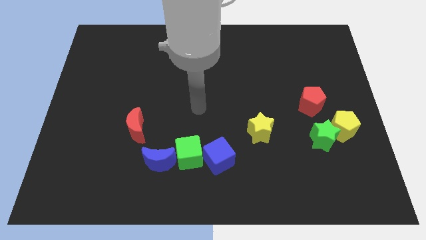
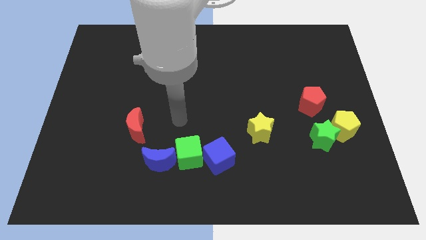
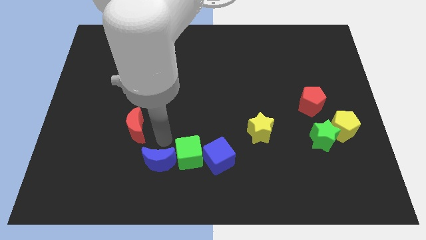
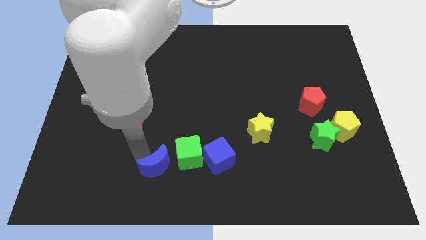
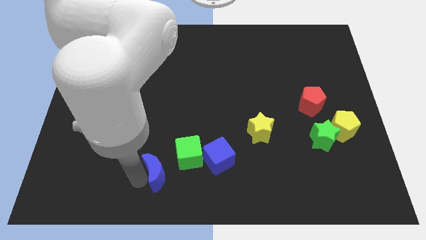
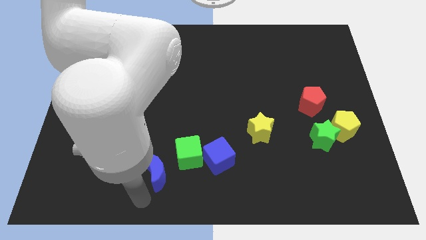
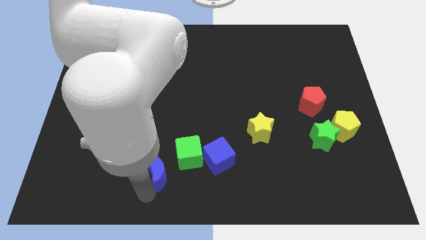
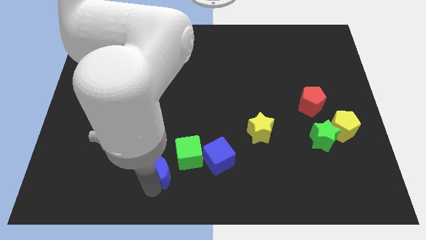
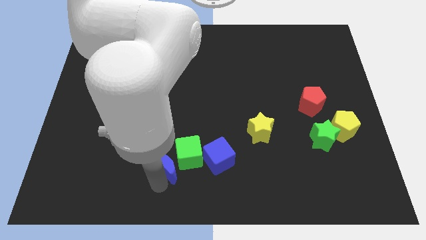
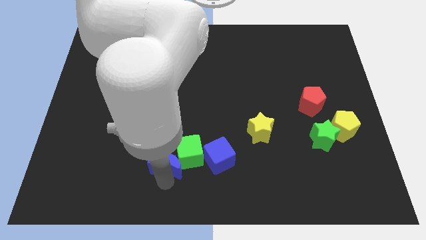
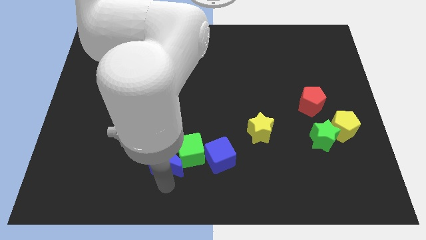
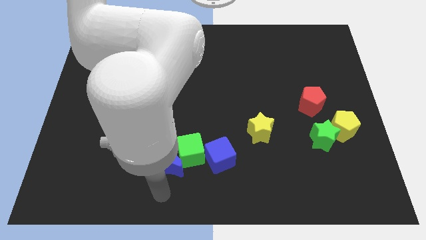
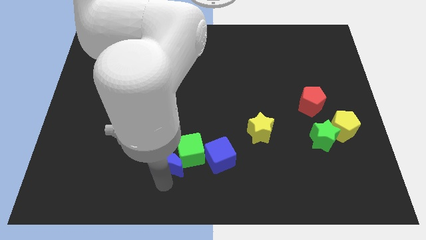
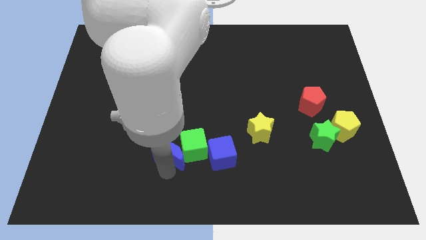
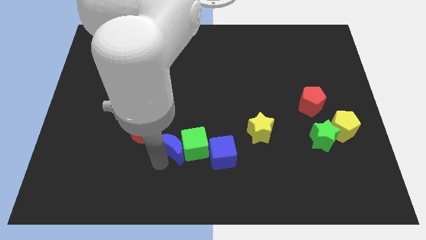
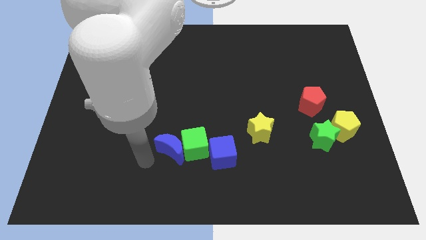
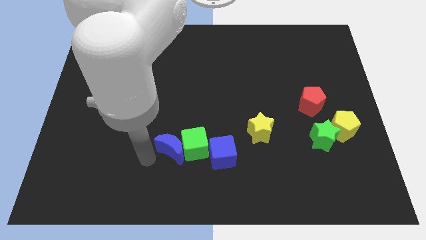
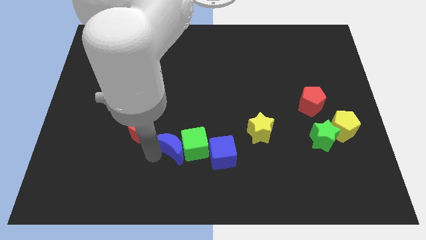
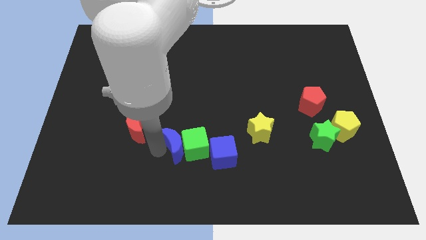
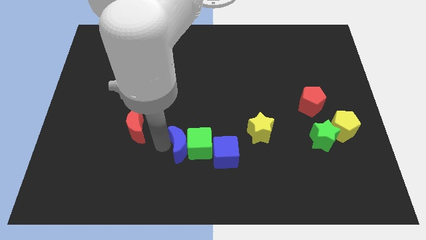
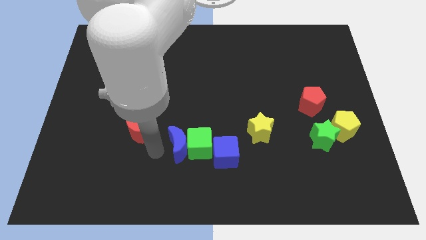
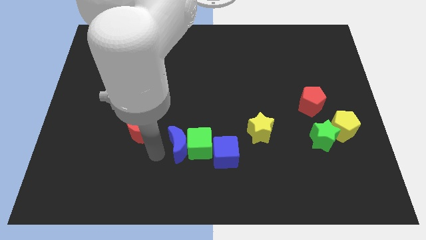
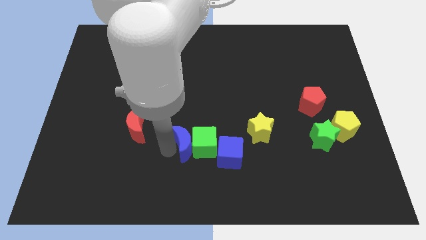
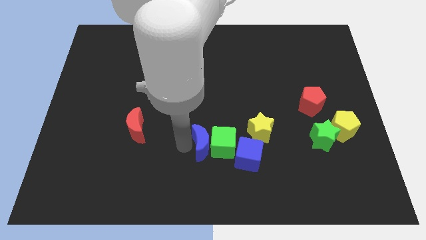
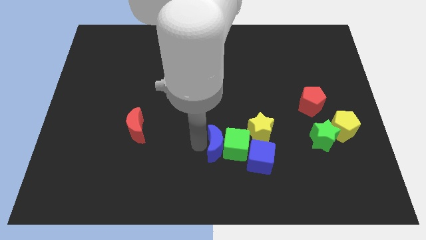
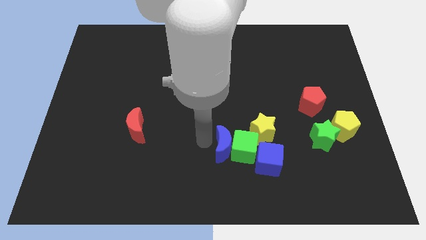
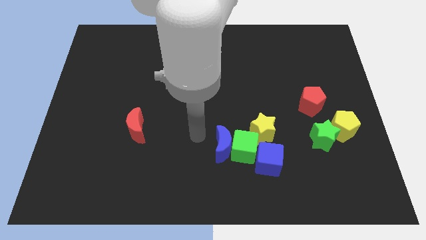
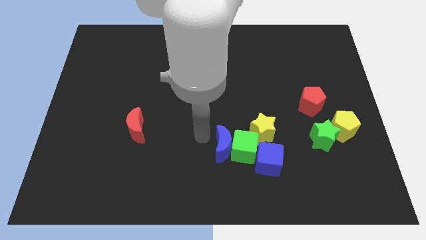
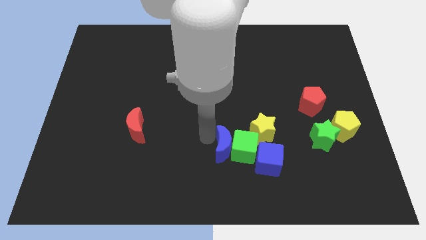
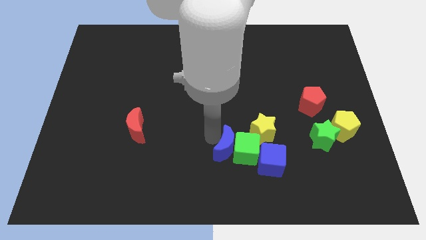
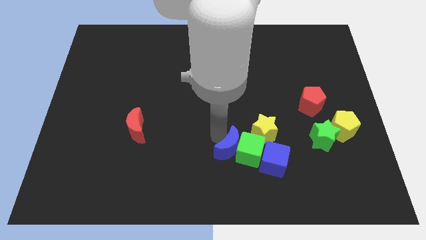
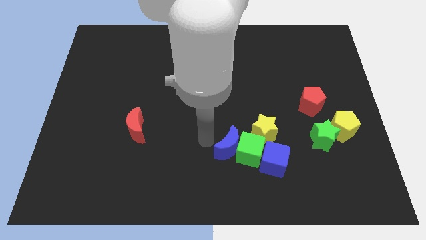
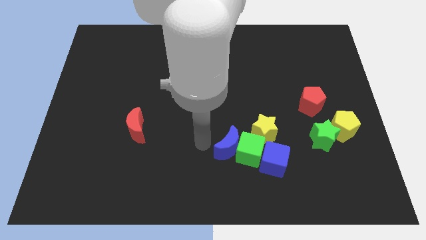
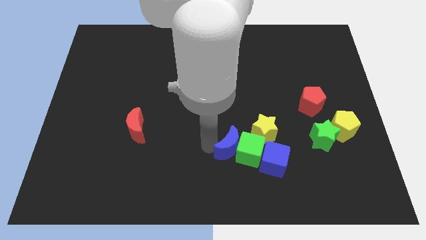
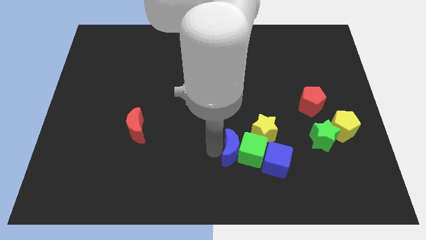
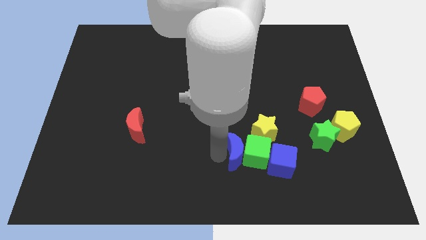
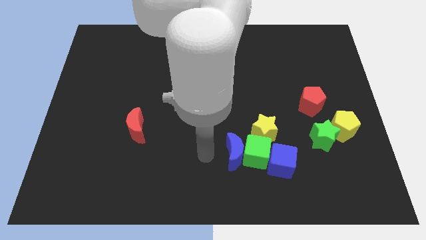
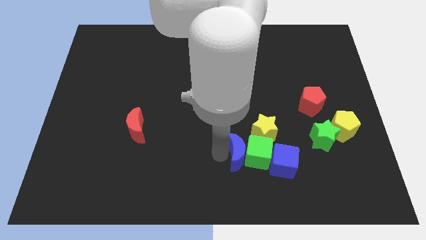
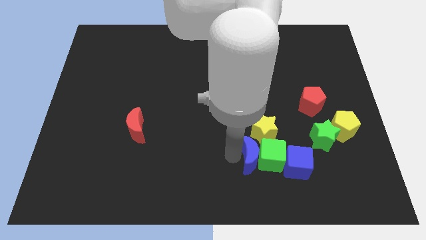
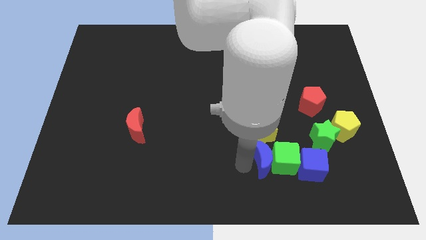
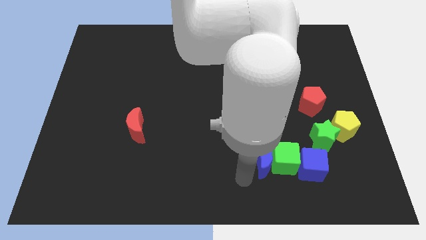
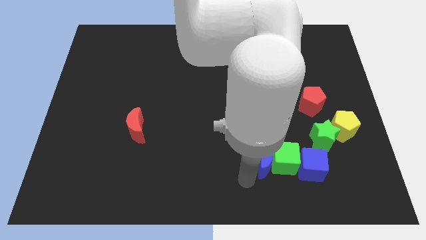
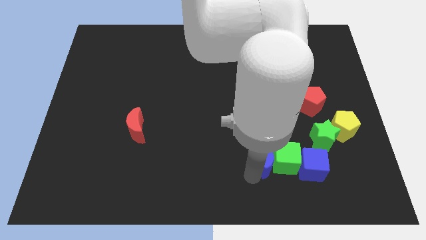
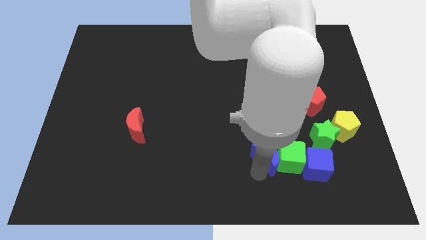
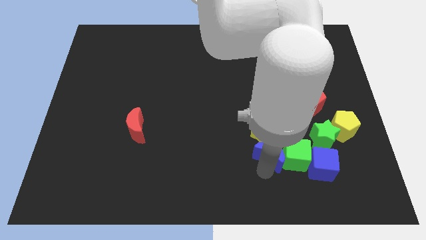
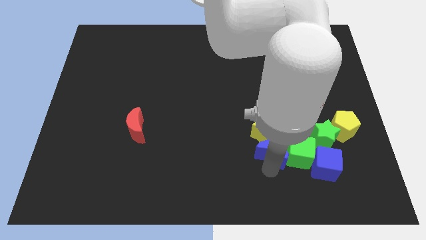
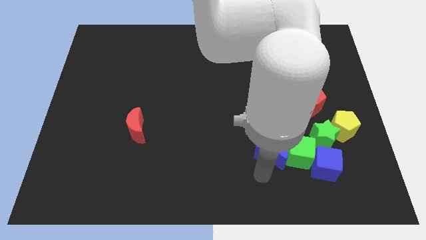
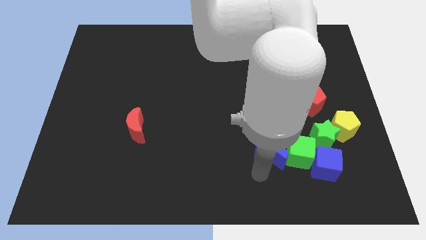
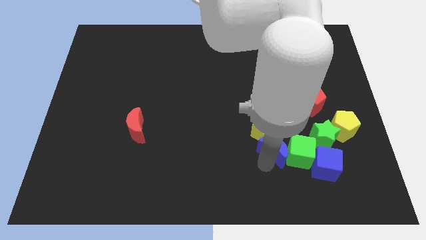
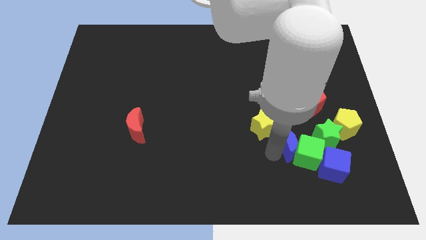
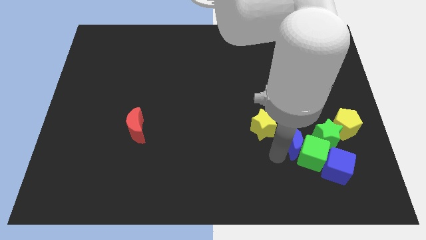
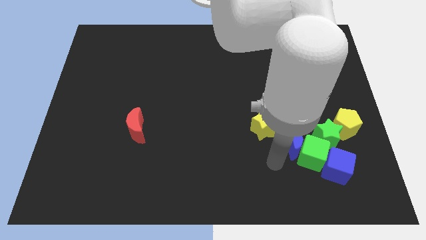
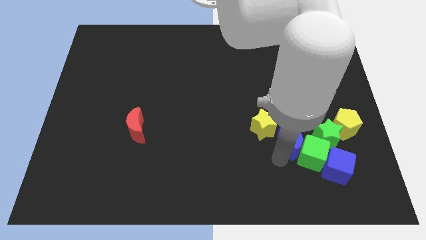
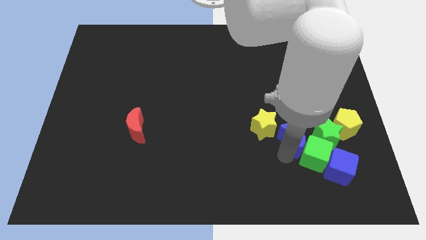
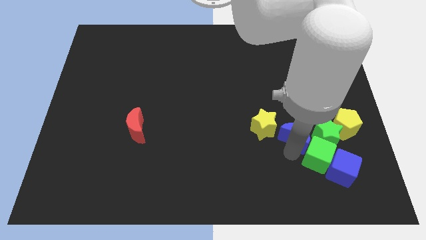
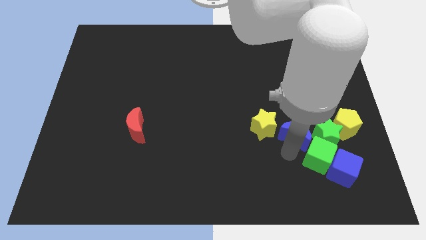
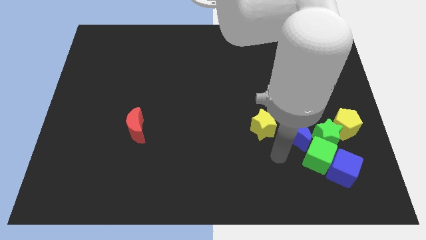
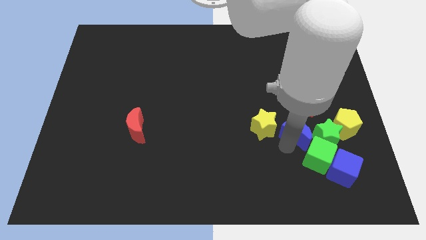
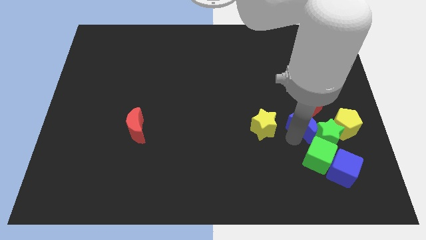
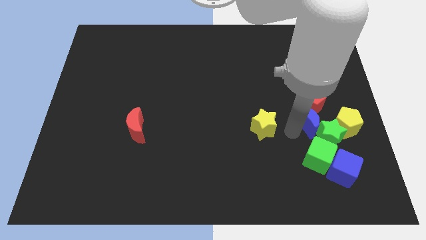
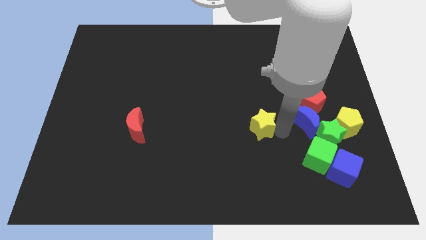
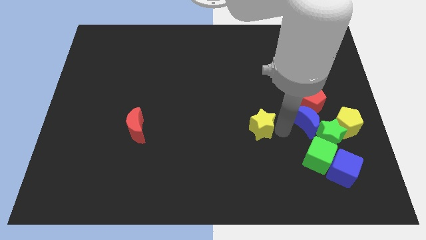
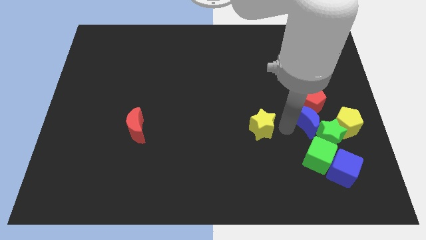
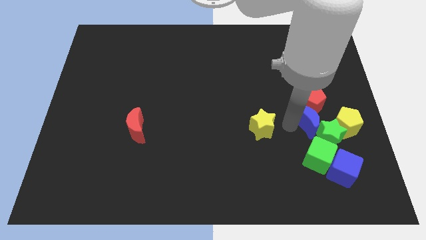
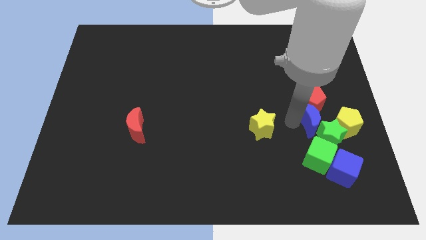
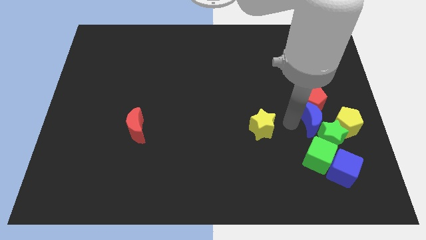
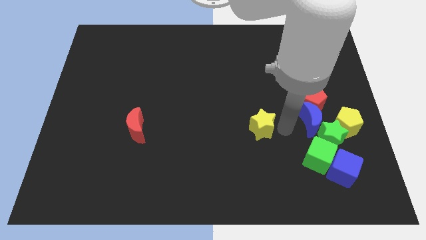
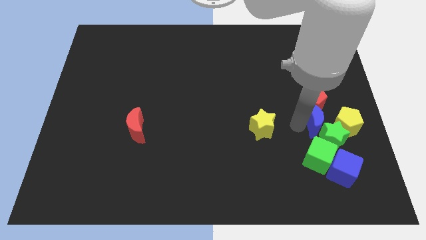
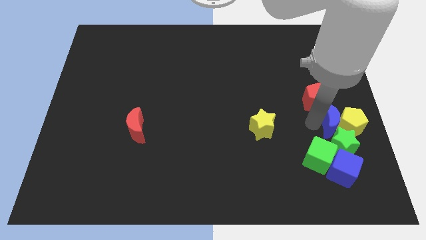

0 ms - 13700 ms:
slide the blue moon to the center right
